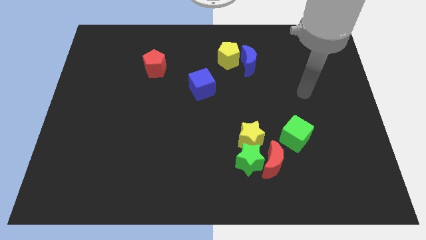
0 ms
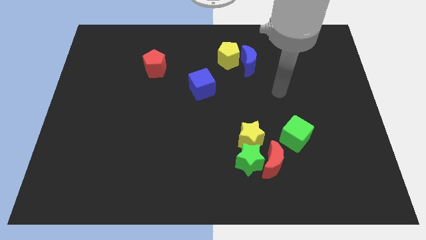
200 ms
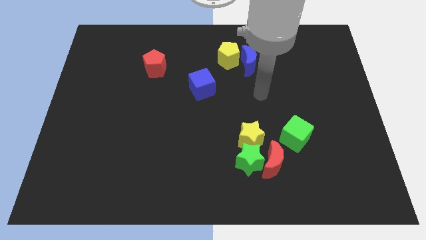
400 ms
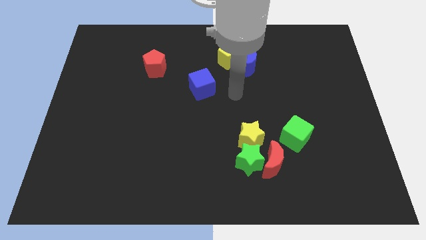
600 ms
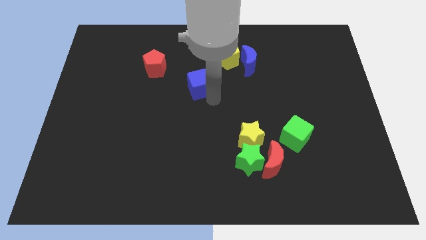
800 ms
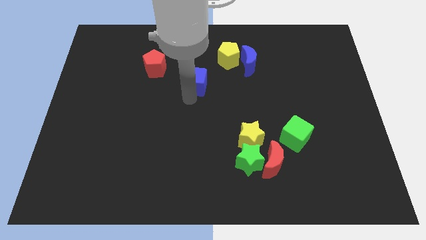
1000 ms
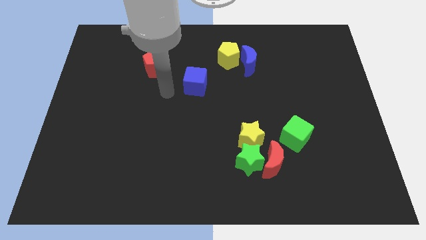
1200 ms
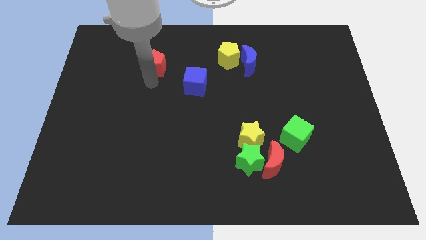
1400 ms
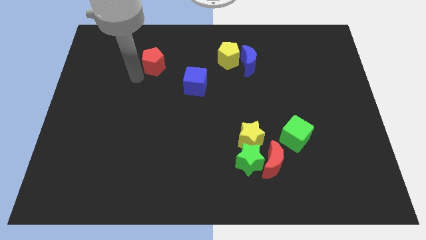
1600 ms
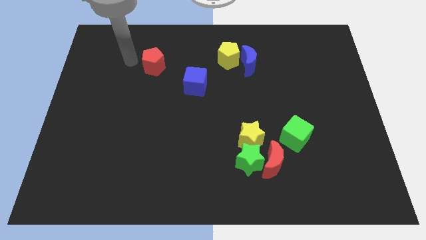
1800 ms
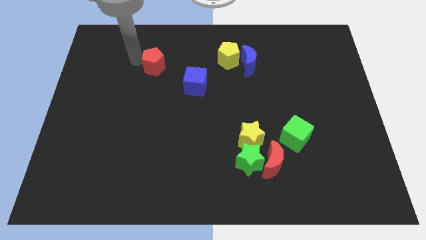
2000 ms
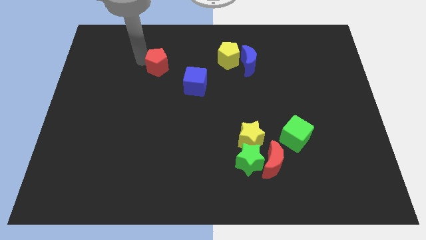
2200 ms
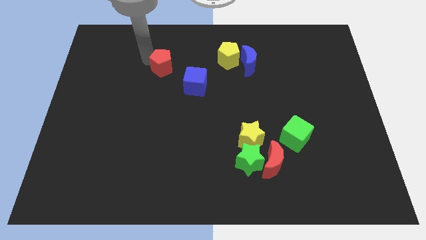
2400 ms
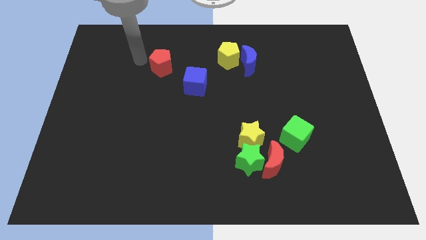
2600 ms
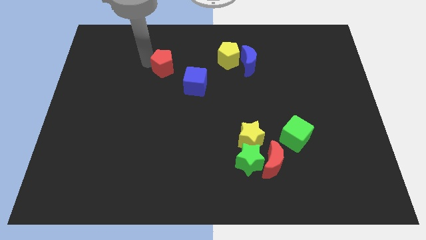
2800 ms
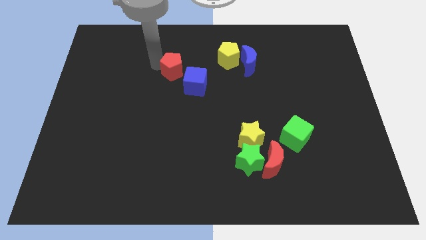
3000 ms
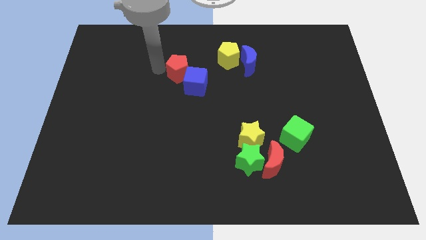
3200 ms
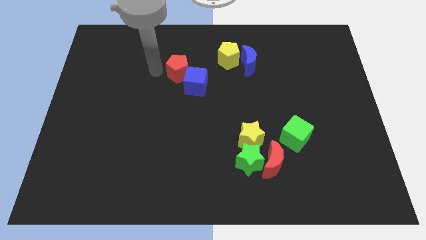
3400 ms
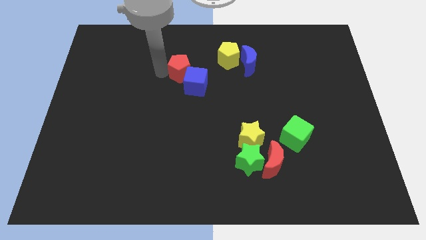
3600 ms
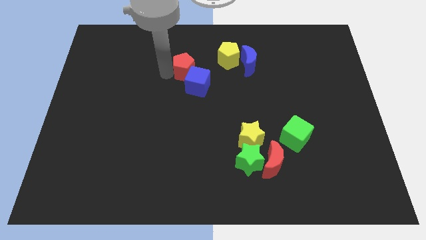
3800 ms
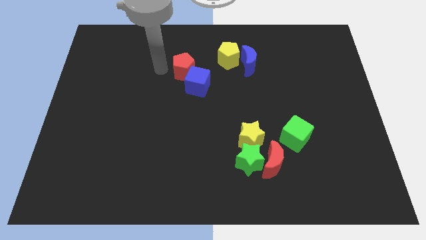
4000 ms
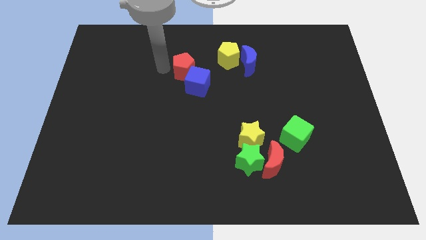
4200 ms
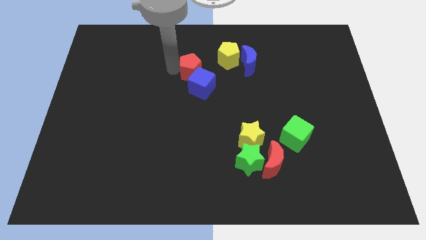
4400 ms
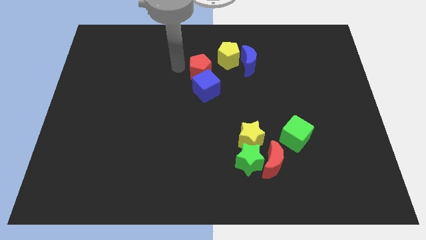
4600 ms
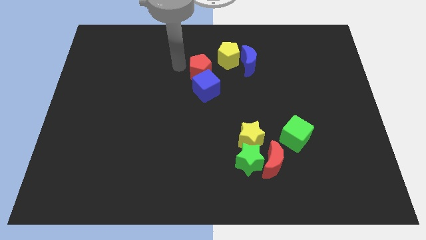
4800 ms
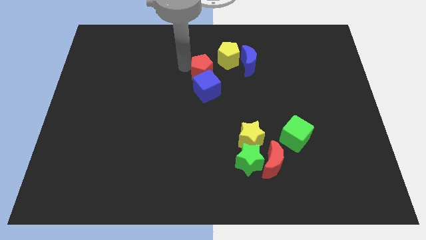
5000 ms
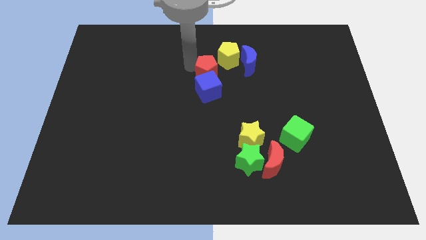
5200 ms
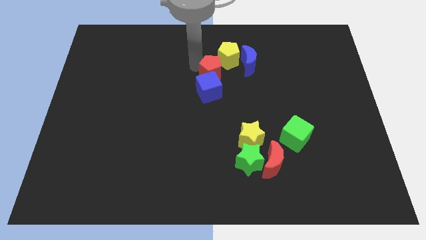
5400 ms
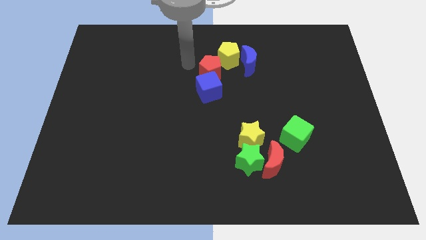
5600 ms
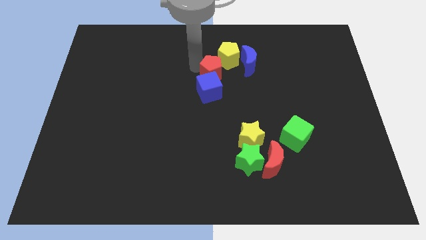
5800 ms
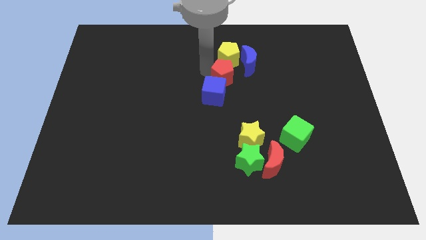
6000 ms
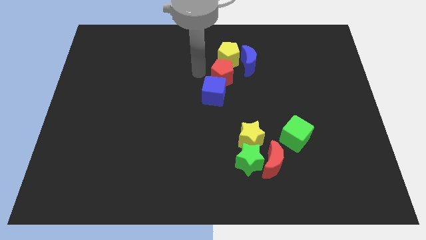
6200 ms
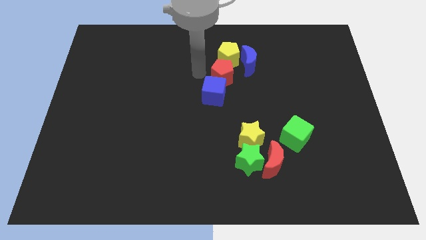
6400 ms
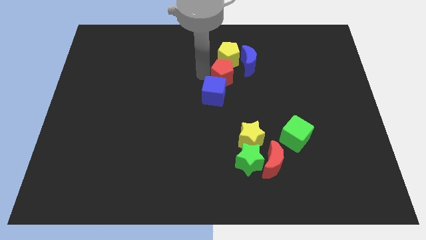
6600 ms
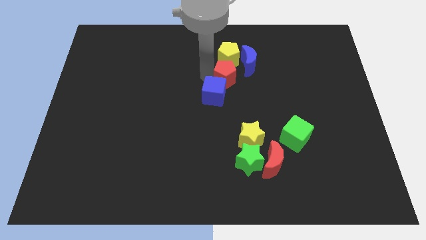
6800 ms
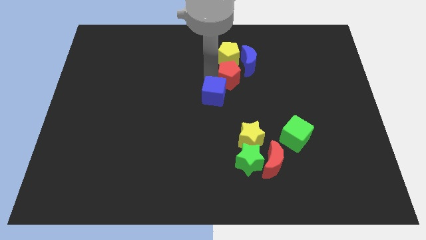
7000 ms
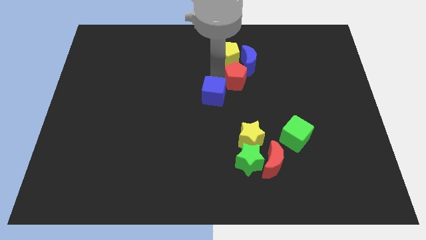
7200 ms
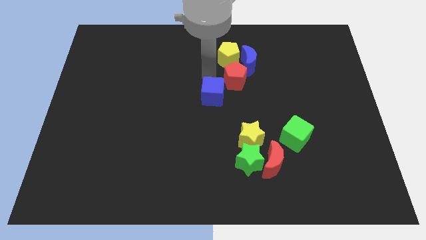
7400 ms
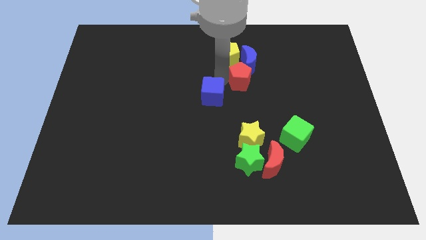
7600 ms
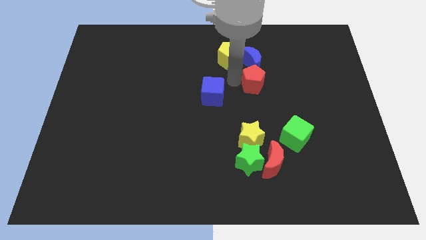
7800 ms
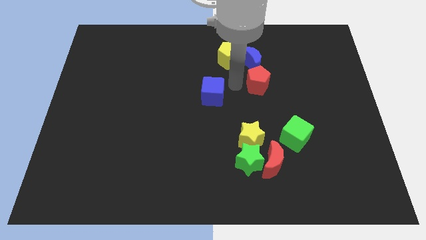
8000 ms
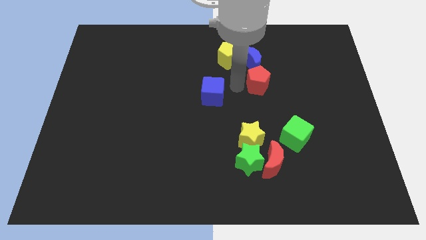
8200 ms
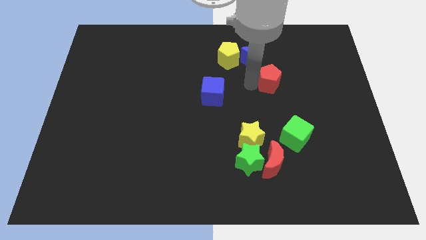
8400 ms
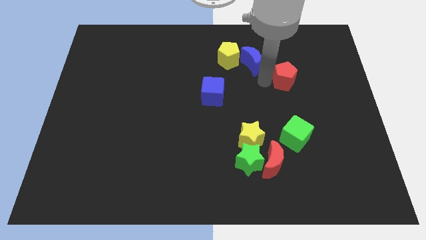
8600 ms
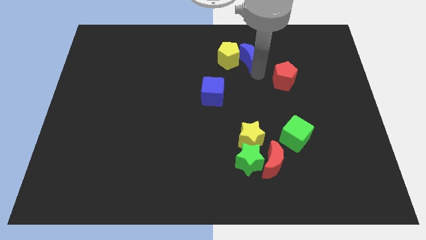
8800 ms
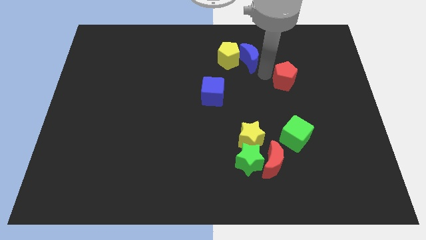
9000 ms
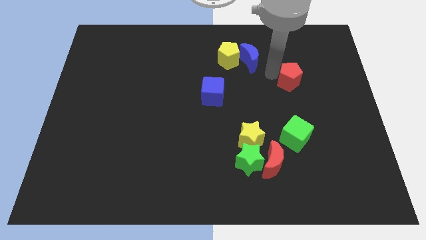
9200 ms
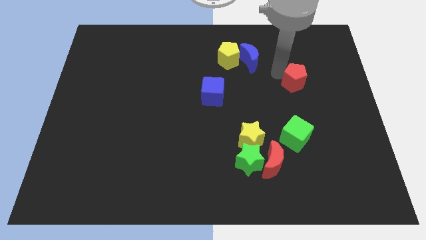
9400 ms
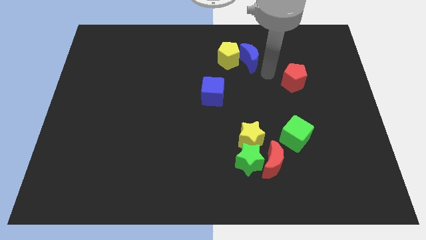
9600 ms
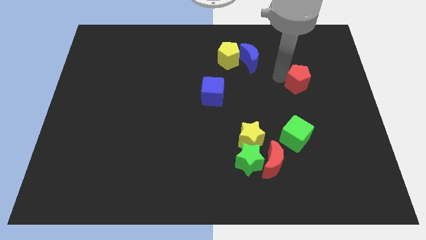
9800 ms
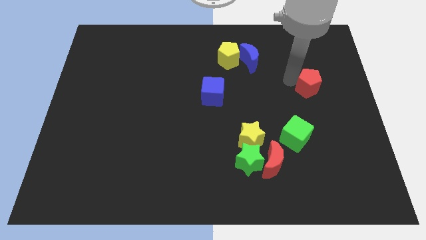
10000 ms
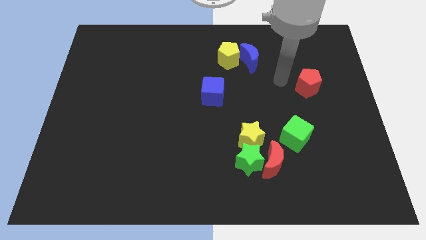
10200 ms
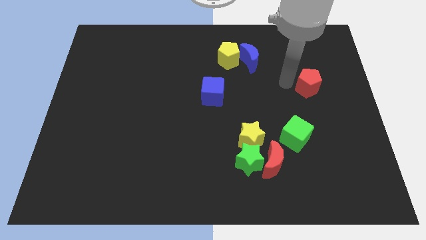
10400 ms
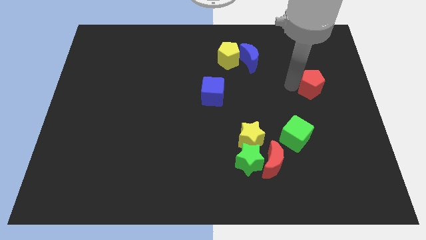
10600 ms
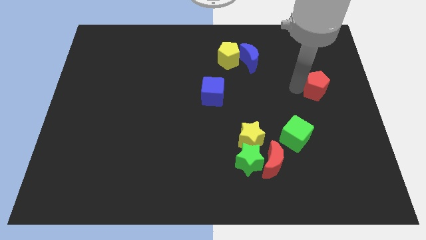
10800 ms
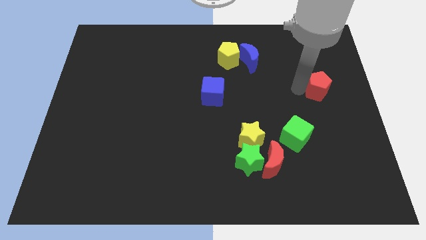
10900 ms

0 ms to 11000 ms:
push the red pentagon to the right side

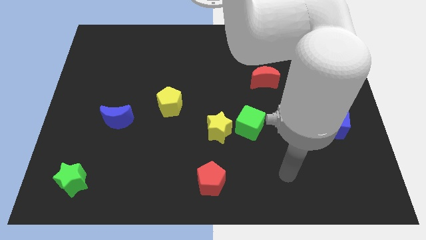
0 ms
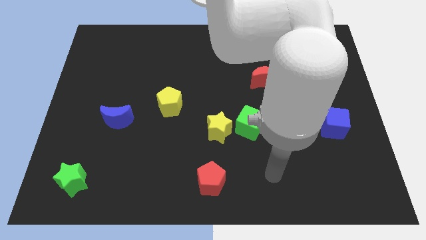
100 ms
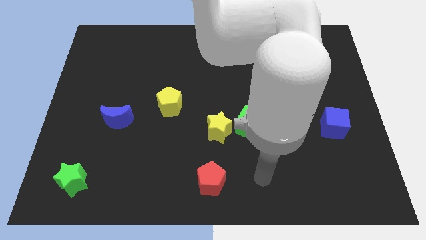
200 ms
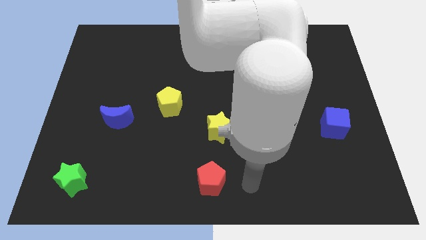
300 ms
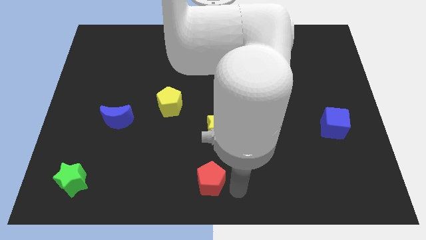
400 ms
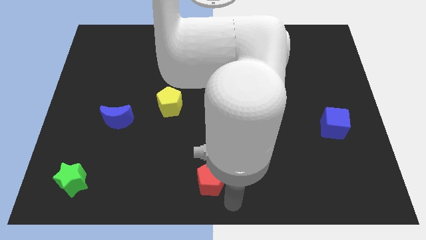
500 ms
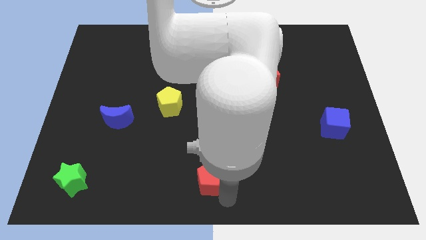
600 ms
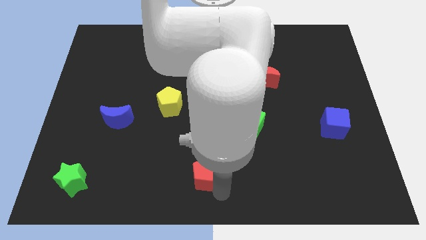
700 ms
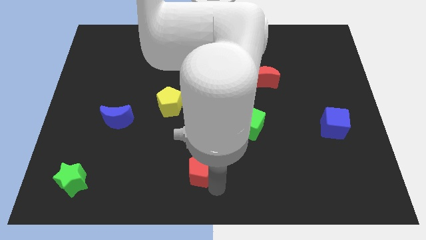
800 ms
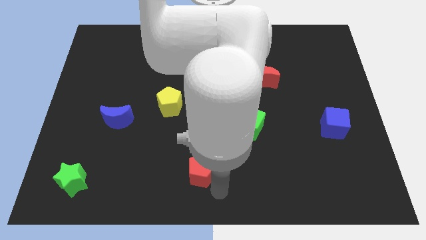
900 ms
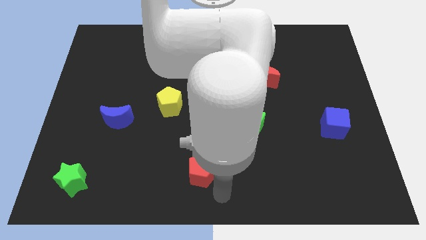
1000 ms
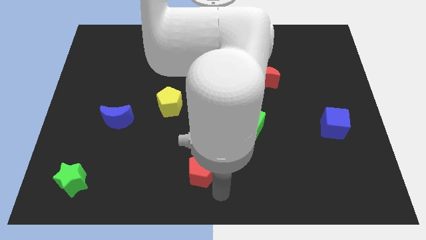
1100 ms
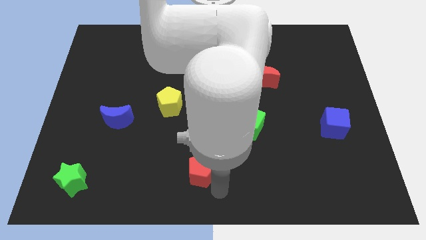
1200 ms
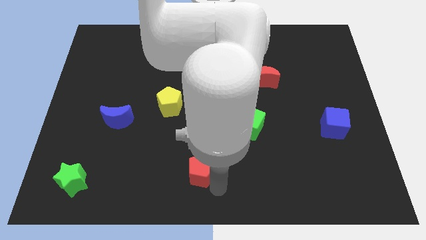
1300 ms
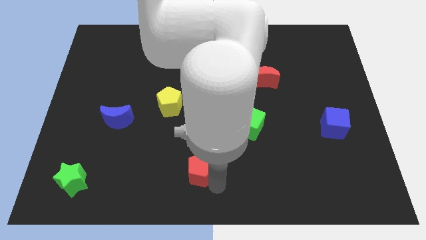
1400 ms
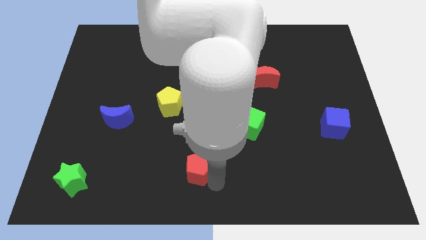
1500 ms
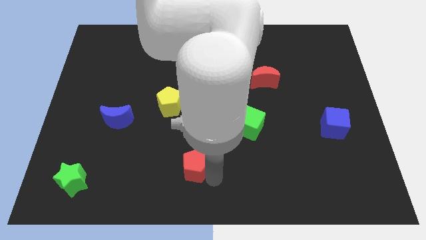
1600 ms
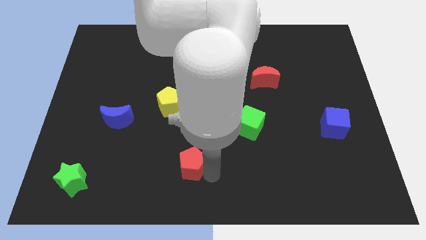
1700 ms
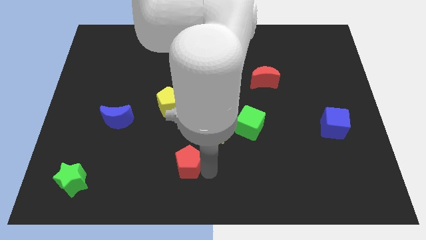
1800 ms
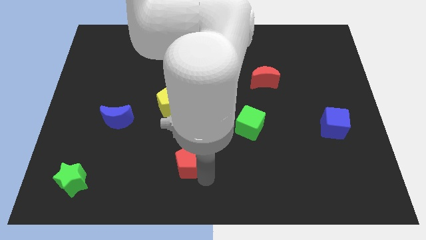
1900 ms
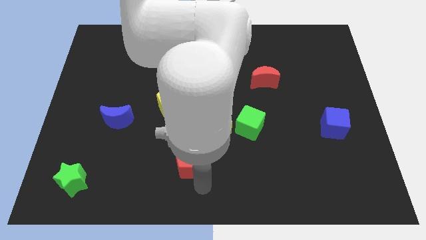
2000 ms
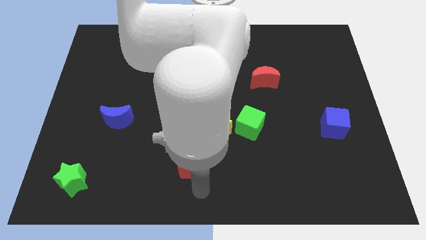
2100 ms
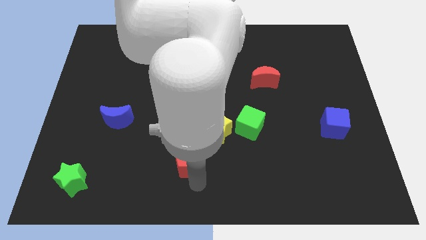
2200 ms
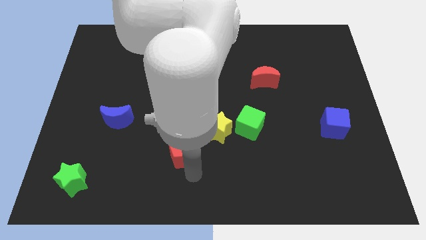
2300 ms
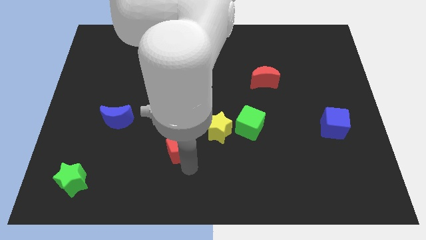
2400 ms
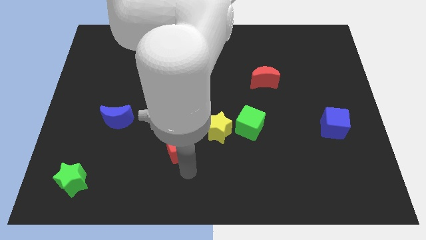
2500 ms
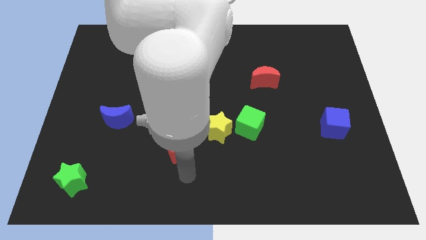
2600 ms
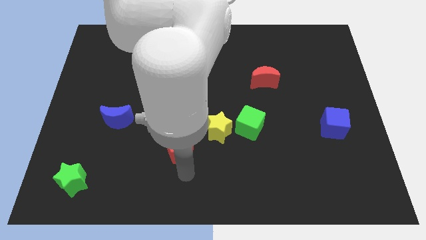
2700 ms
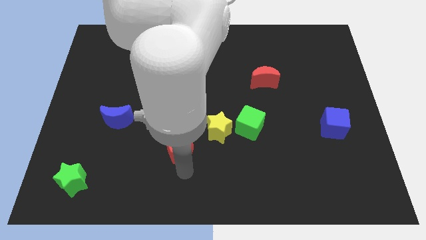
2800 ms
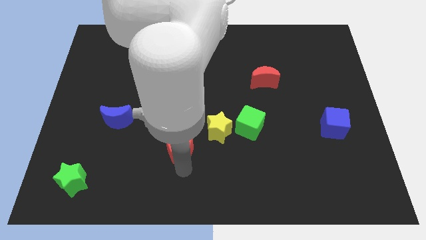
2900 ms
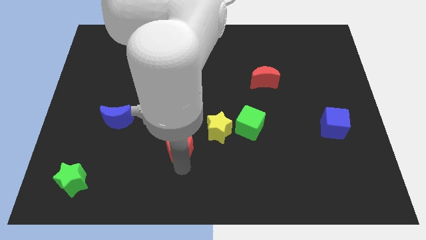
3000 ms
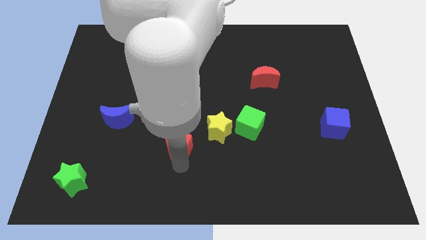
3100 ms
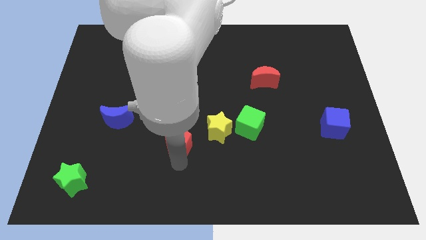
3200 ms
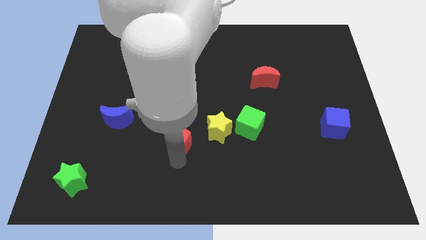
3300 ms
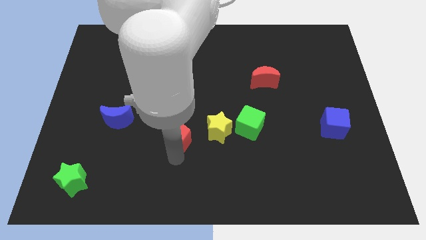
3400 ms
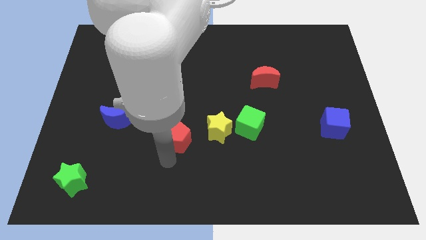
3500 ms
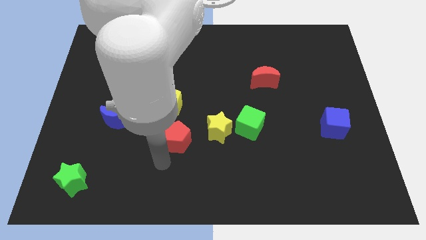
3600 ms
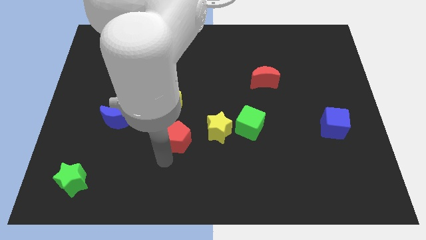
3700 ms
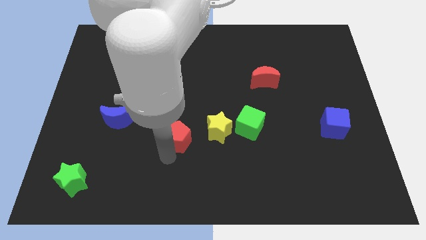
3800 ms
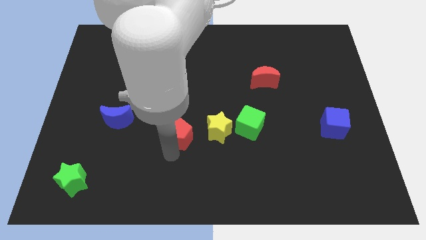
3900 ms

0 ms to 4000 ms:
put the red pentagon to the center
